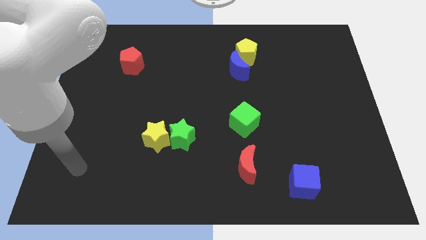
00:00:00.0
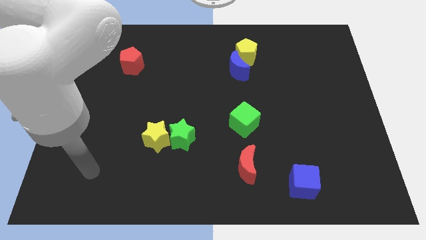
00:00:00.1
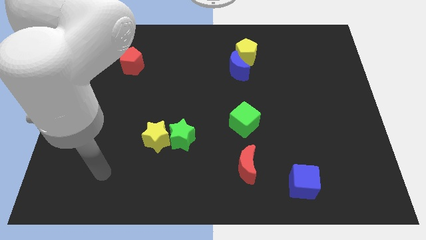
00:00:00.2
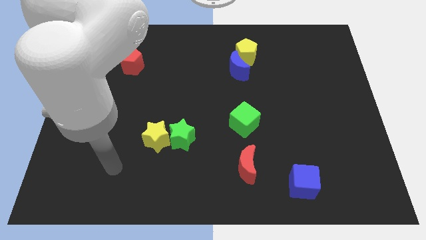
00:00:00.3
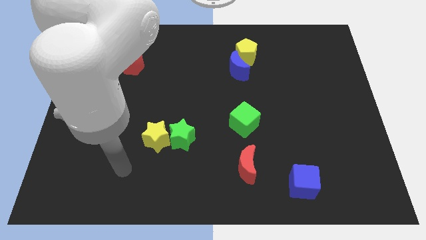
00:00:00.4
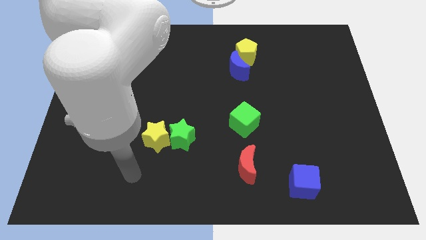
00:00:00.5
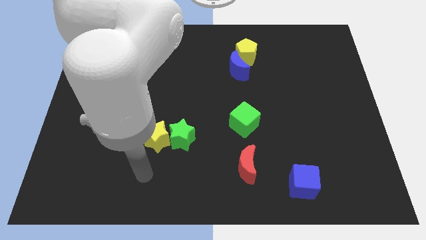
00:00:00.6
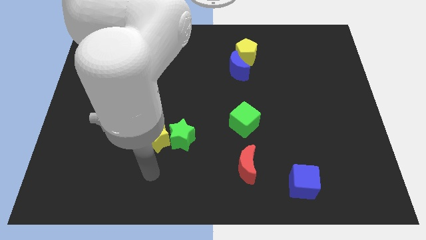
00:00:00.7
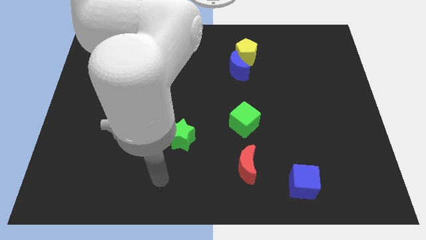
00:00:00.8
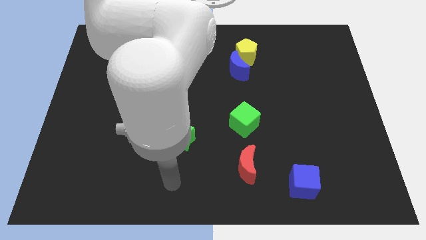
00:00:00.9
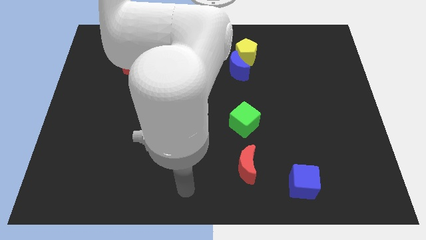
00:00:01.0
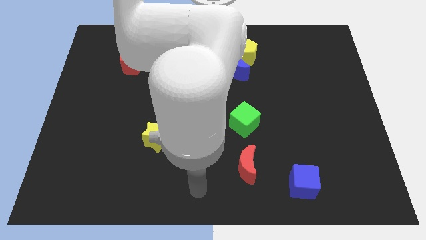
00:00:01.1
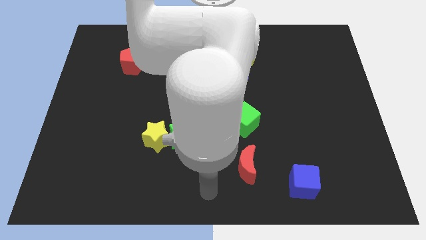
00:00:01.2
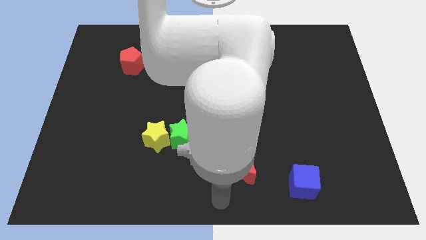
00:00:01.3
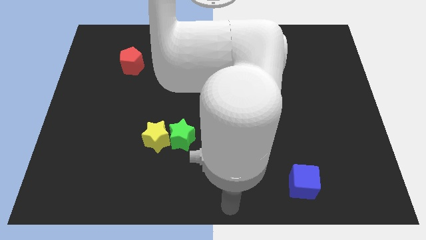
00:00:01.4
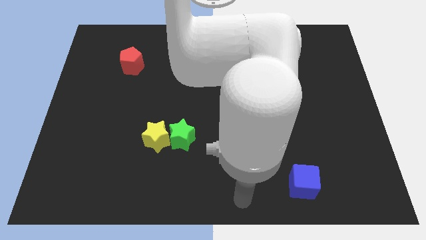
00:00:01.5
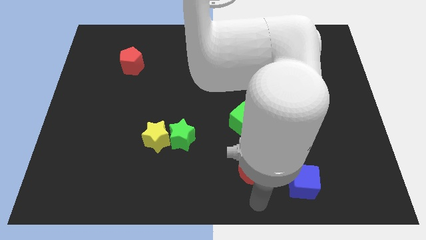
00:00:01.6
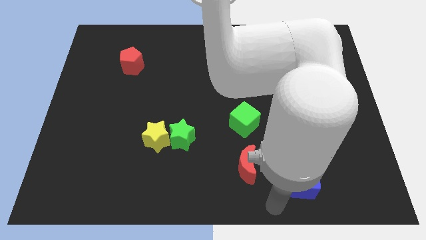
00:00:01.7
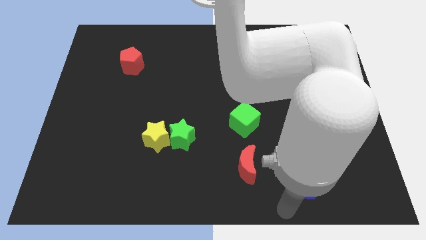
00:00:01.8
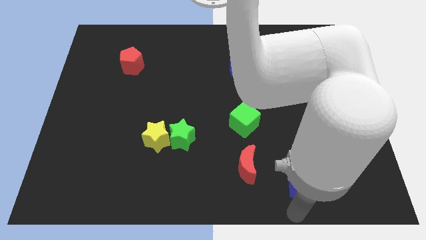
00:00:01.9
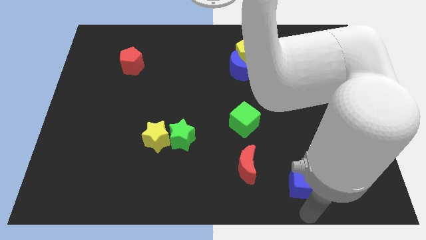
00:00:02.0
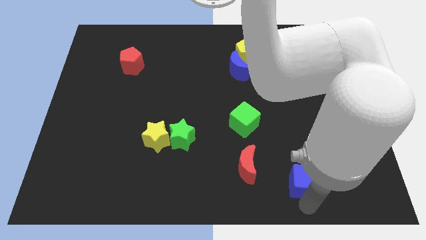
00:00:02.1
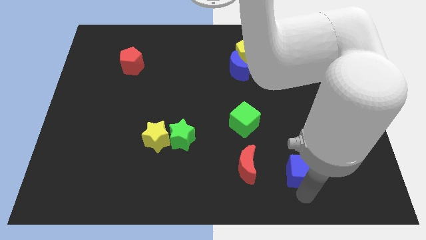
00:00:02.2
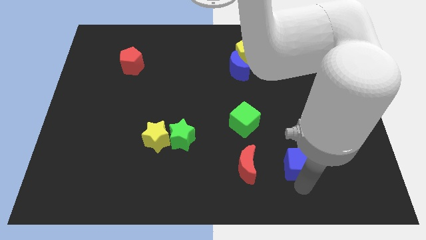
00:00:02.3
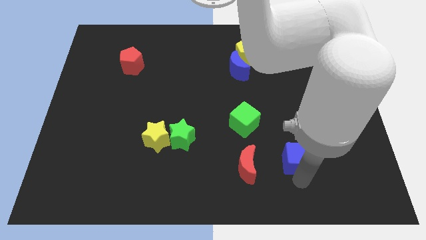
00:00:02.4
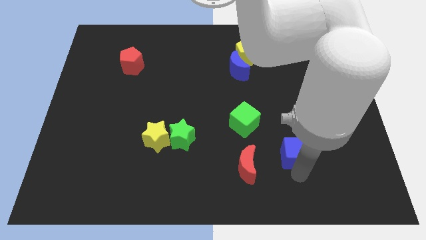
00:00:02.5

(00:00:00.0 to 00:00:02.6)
slightly slide the blue cube upwards

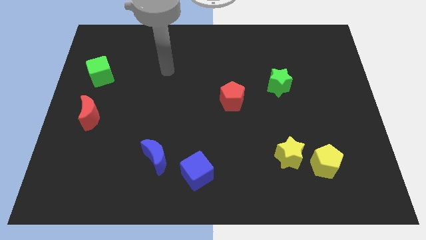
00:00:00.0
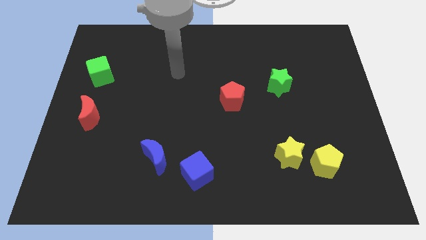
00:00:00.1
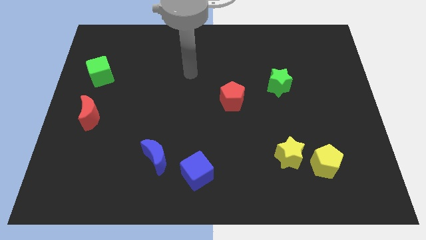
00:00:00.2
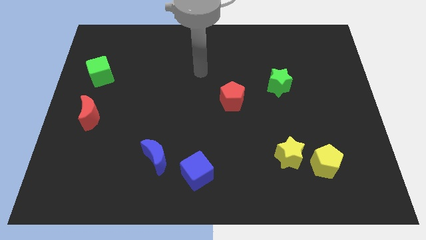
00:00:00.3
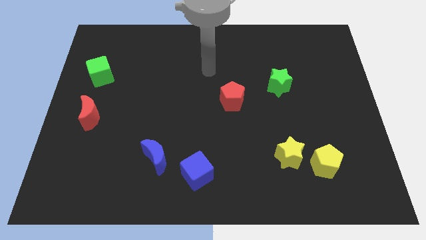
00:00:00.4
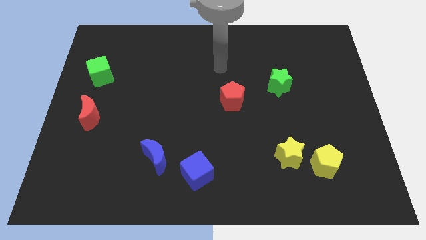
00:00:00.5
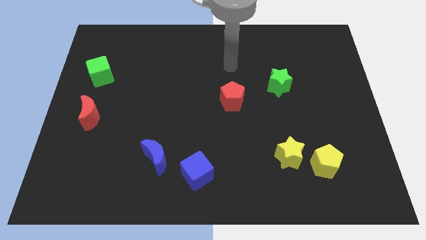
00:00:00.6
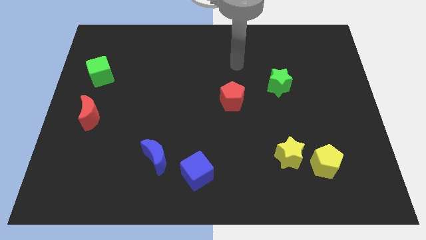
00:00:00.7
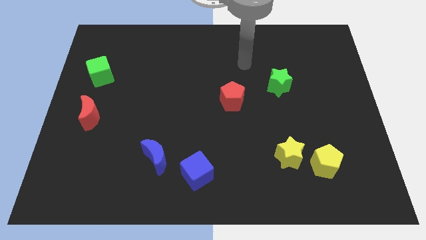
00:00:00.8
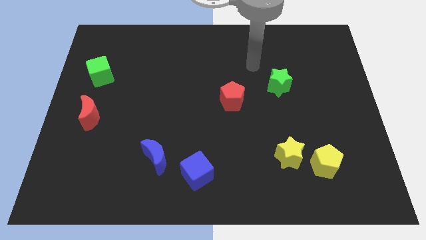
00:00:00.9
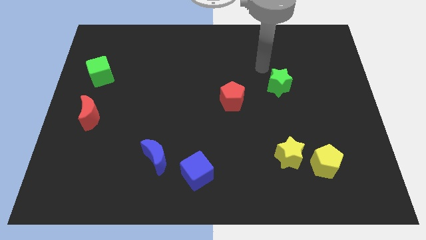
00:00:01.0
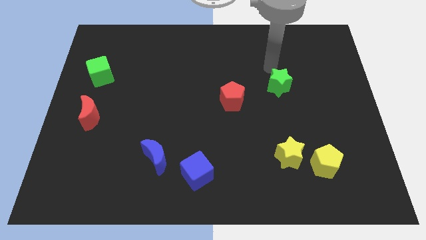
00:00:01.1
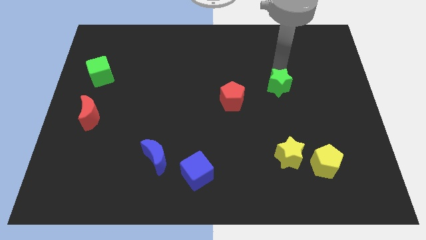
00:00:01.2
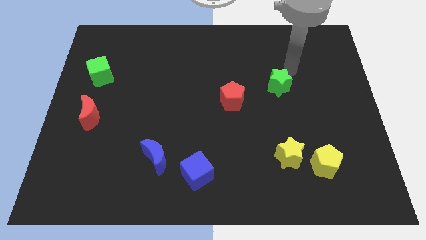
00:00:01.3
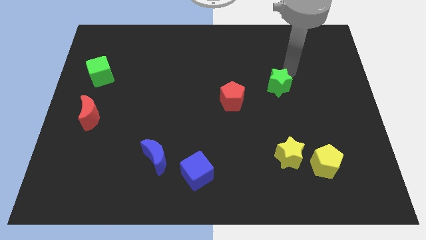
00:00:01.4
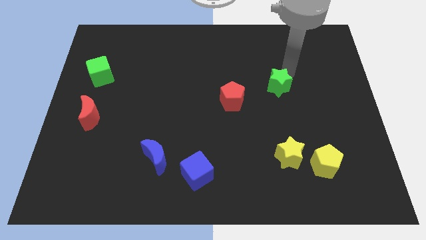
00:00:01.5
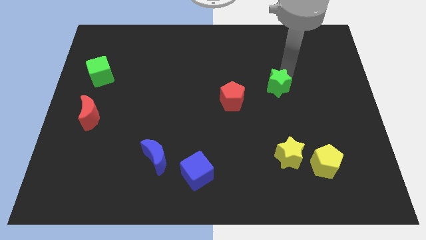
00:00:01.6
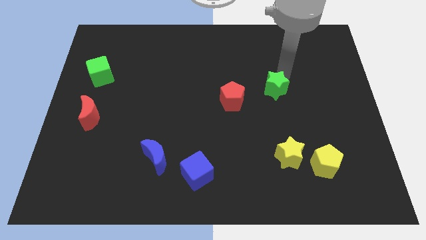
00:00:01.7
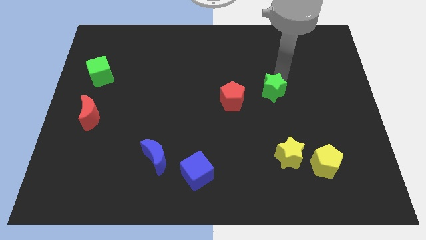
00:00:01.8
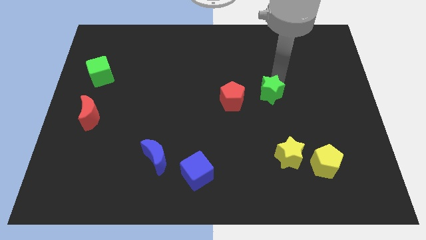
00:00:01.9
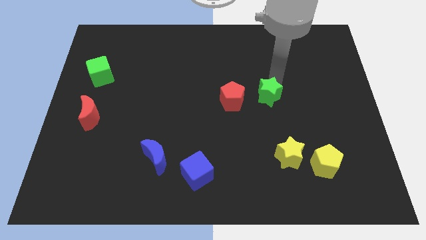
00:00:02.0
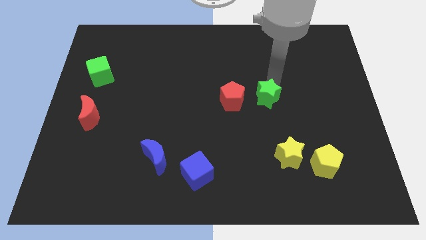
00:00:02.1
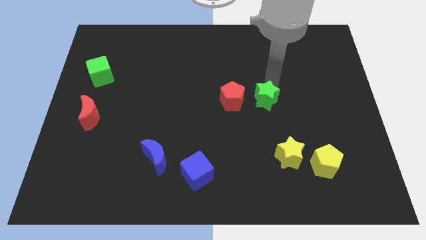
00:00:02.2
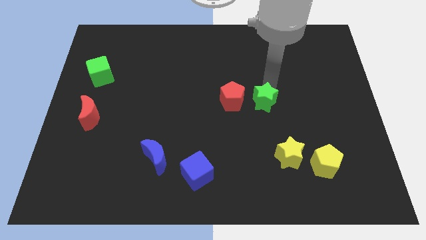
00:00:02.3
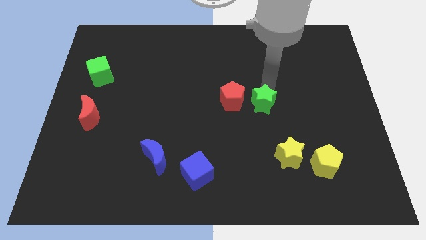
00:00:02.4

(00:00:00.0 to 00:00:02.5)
push the green star somewhat diagonally downwards and to the left

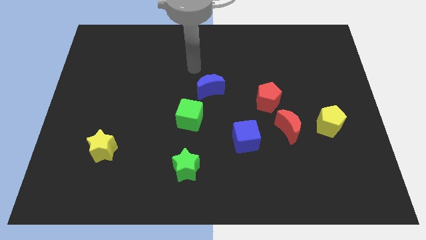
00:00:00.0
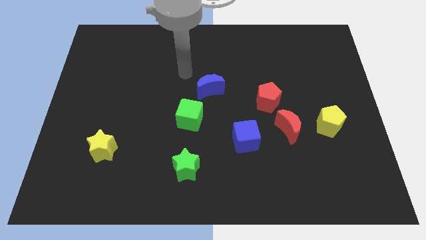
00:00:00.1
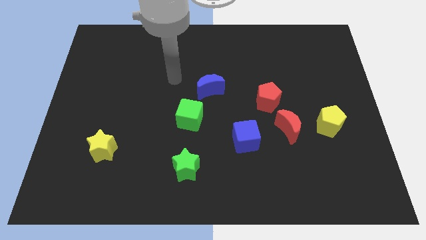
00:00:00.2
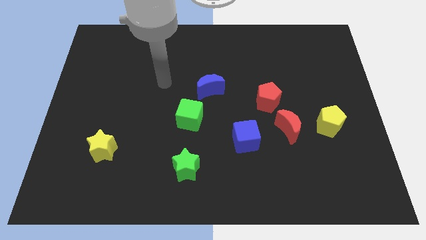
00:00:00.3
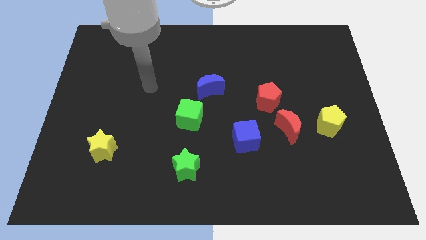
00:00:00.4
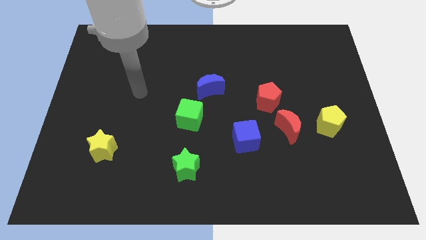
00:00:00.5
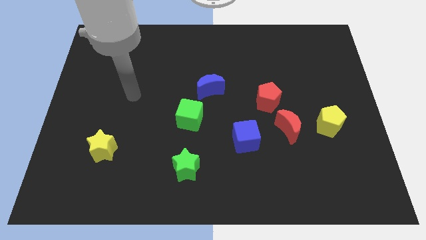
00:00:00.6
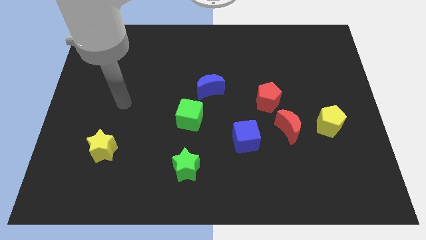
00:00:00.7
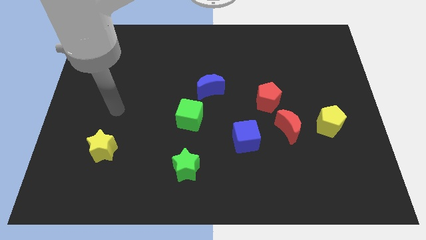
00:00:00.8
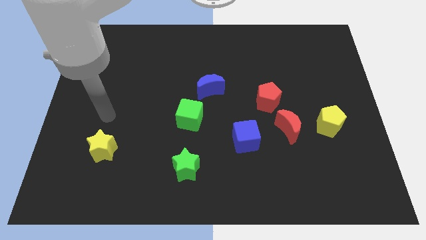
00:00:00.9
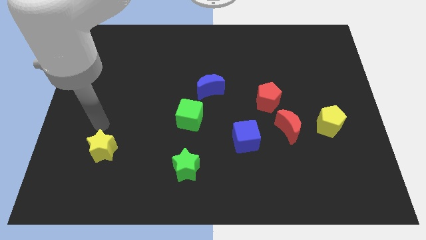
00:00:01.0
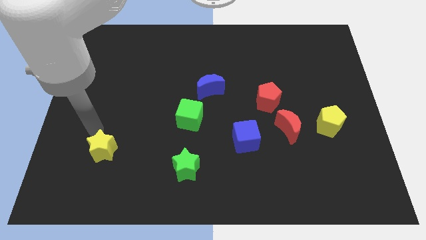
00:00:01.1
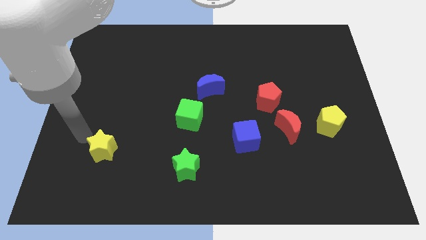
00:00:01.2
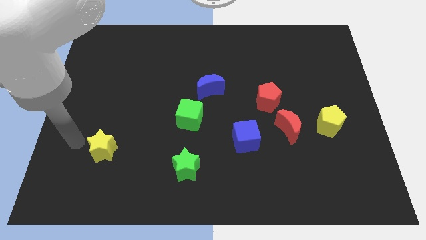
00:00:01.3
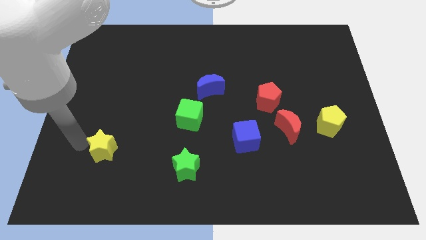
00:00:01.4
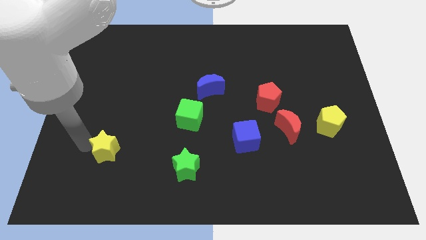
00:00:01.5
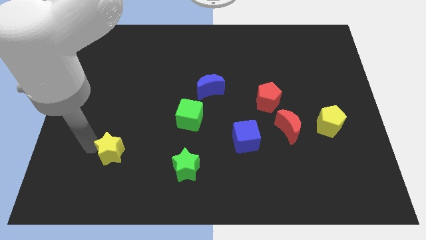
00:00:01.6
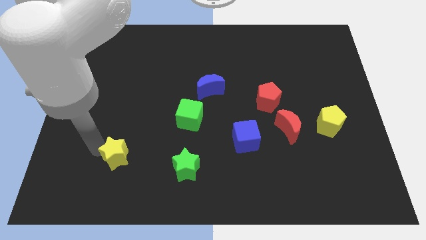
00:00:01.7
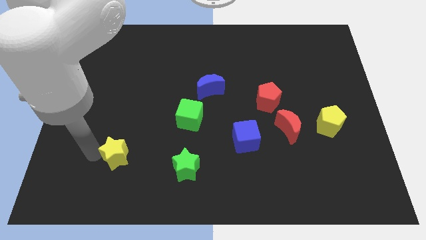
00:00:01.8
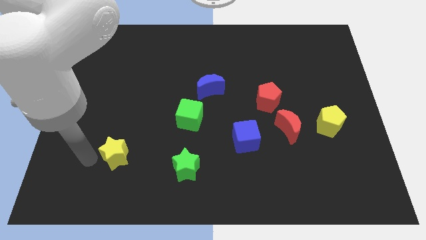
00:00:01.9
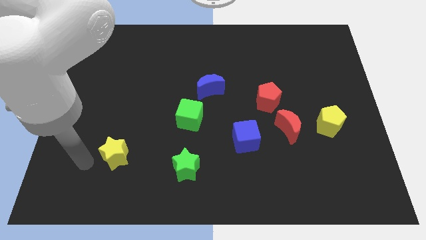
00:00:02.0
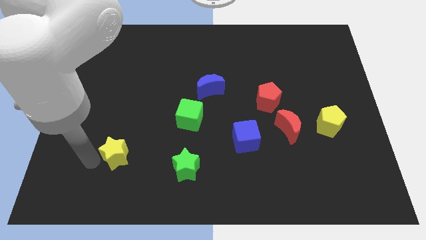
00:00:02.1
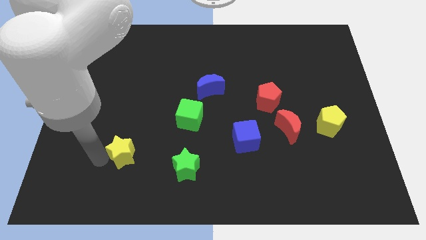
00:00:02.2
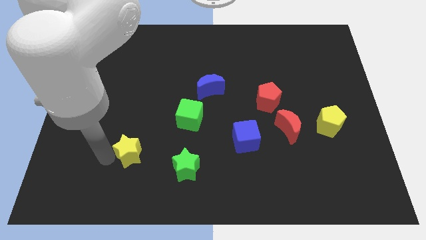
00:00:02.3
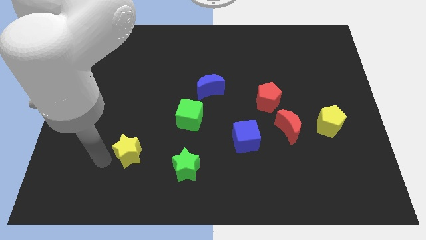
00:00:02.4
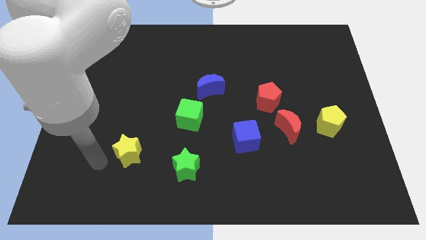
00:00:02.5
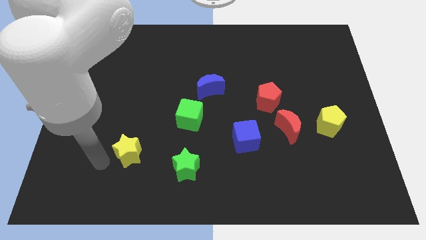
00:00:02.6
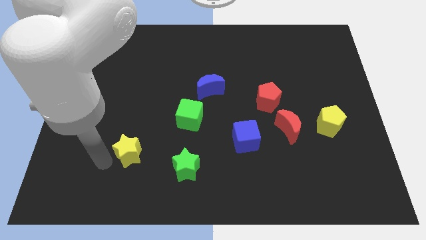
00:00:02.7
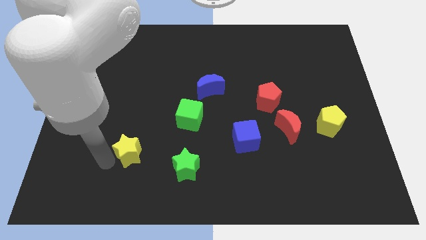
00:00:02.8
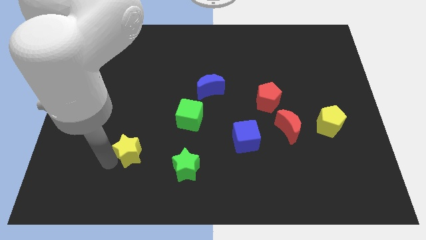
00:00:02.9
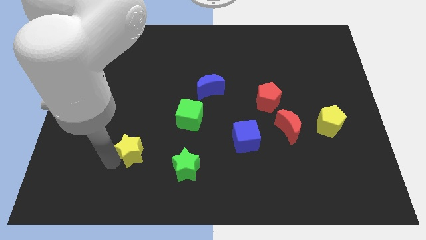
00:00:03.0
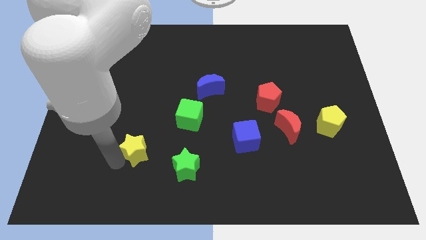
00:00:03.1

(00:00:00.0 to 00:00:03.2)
slightly push the yellow star right
